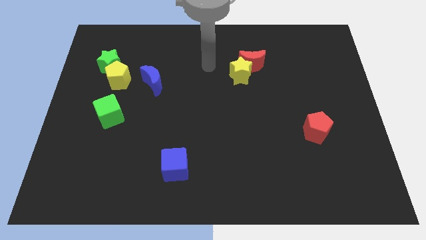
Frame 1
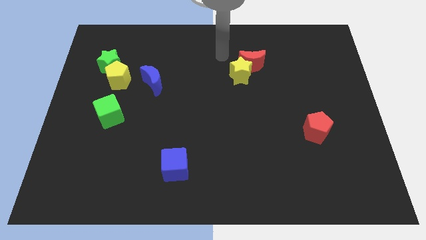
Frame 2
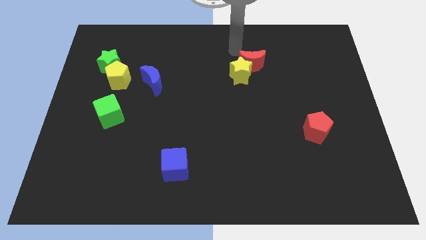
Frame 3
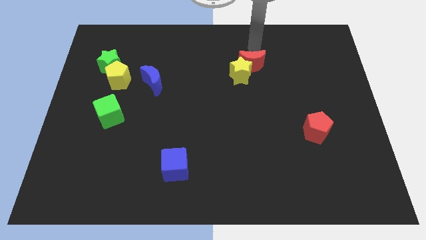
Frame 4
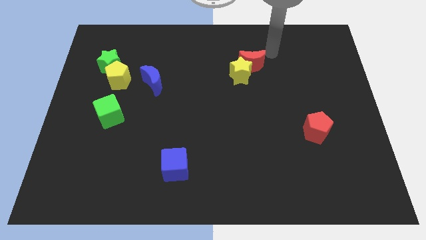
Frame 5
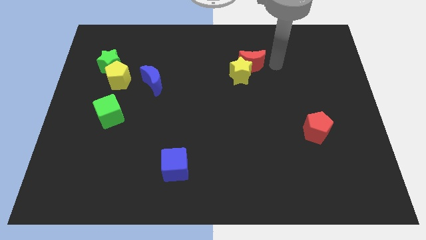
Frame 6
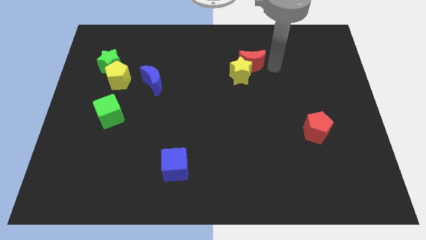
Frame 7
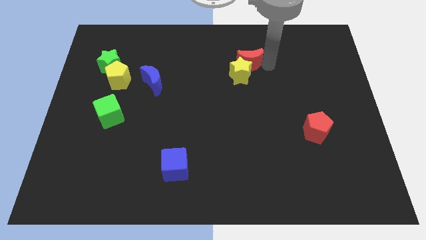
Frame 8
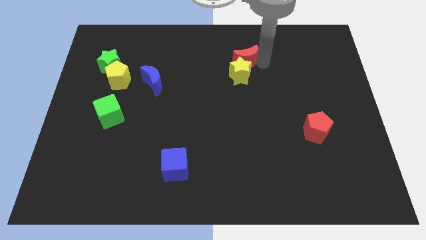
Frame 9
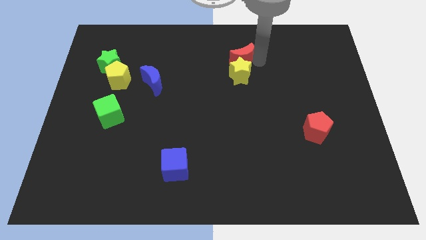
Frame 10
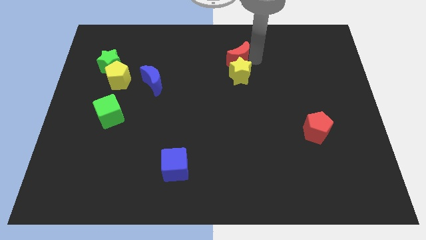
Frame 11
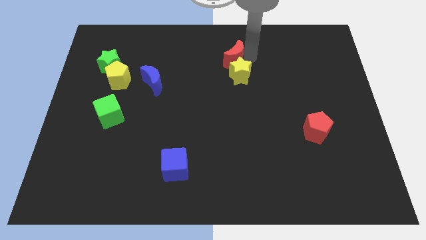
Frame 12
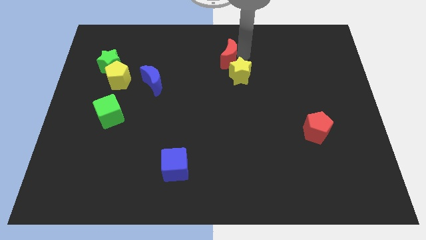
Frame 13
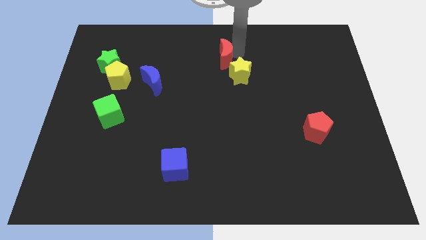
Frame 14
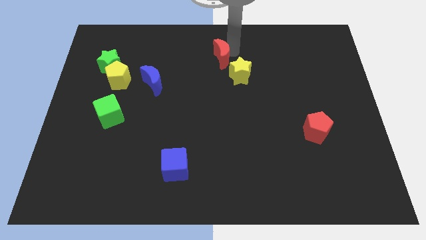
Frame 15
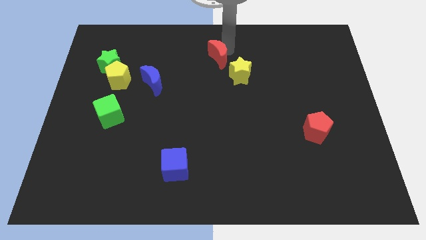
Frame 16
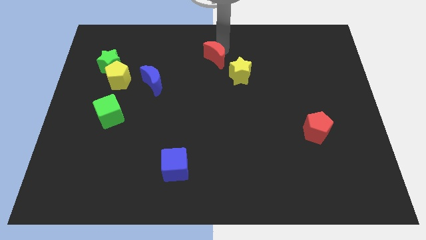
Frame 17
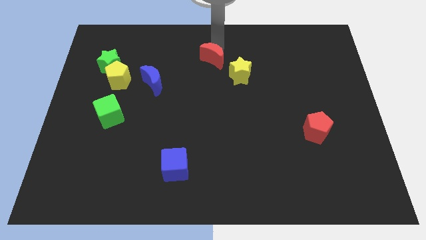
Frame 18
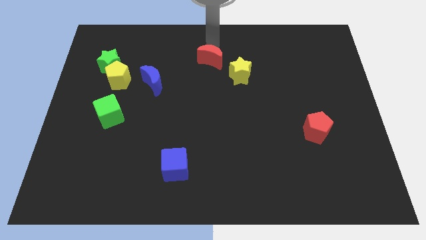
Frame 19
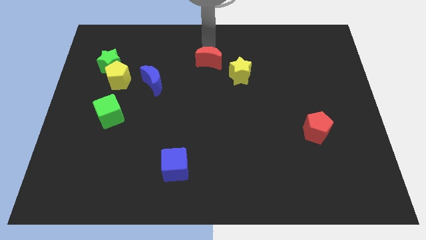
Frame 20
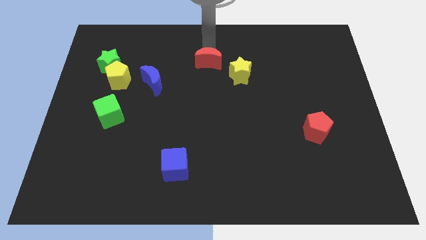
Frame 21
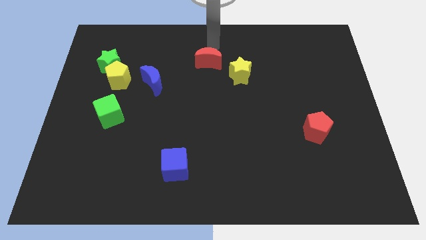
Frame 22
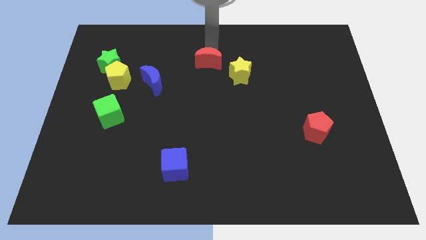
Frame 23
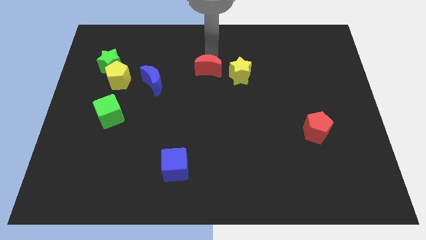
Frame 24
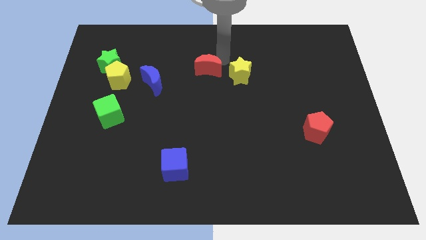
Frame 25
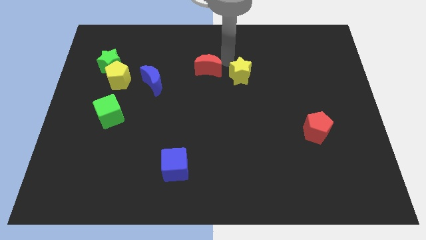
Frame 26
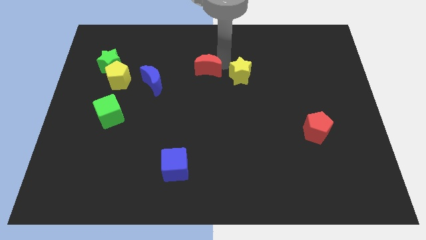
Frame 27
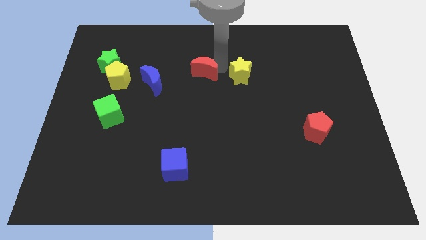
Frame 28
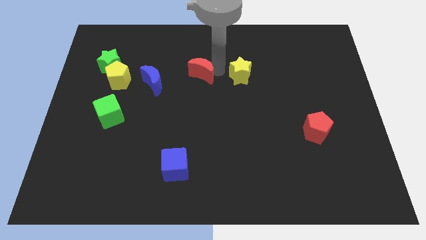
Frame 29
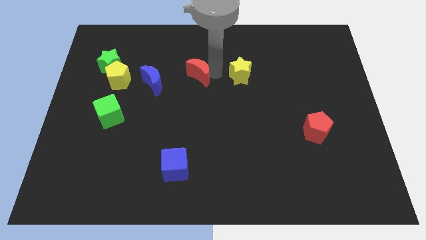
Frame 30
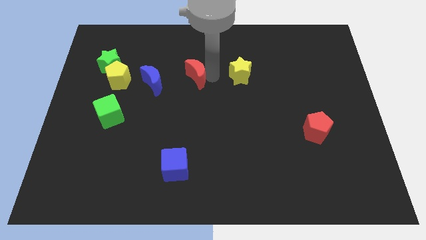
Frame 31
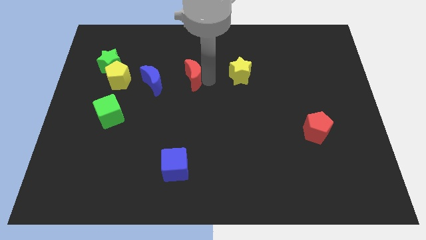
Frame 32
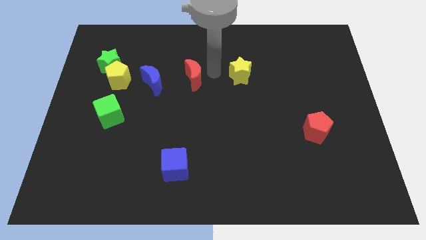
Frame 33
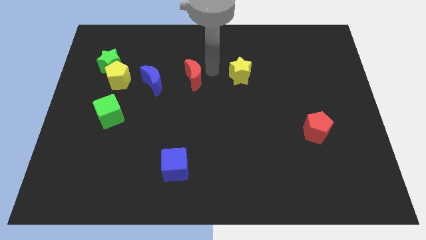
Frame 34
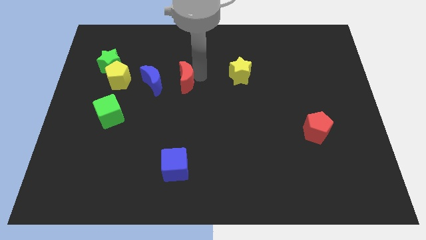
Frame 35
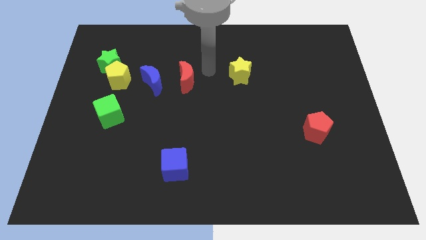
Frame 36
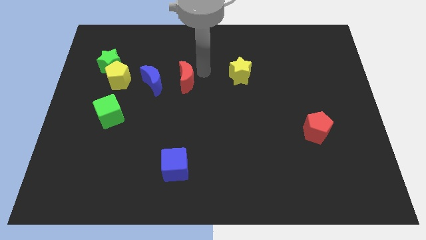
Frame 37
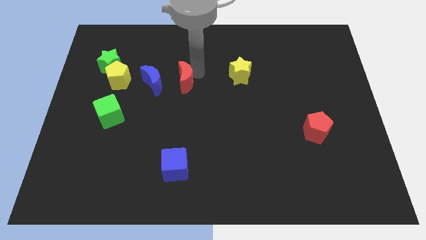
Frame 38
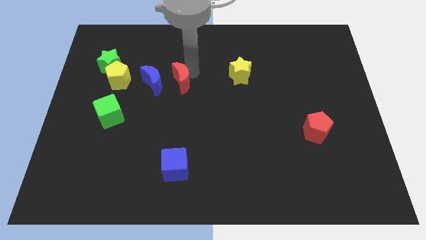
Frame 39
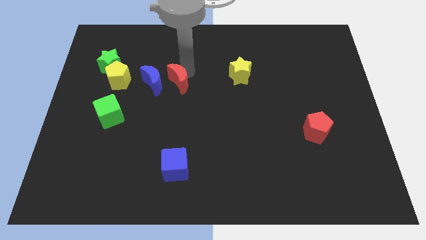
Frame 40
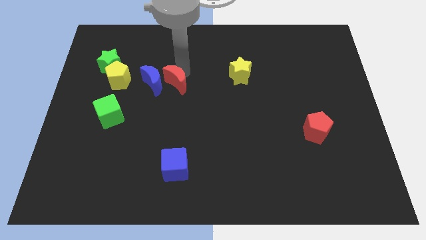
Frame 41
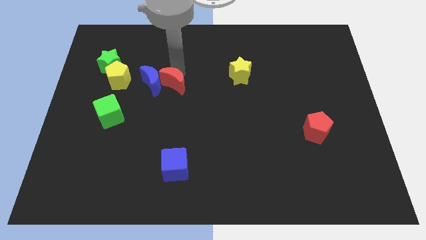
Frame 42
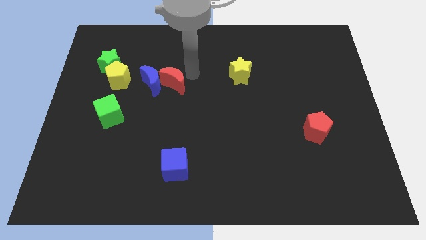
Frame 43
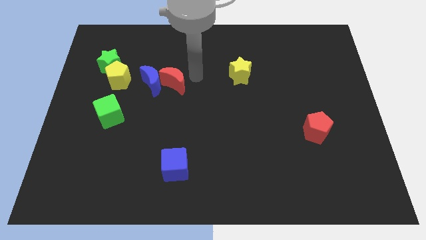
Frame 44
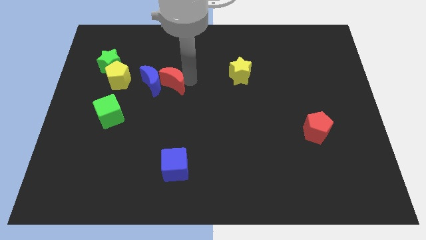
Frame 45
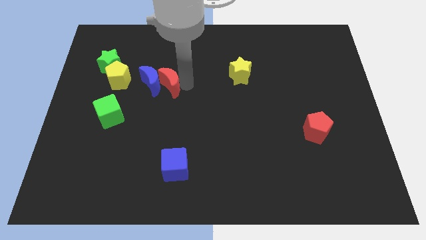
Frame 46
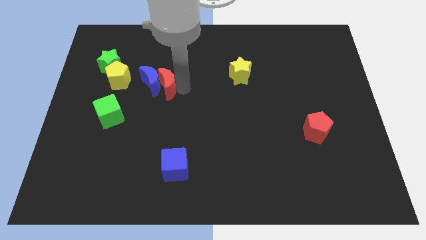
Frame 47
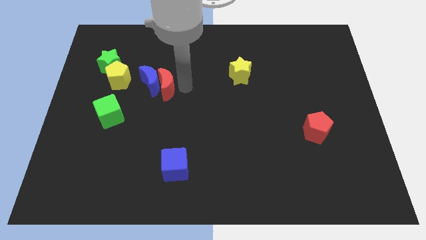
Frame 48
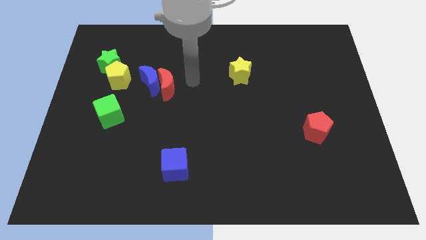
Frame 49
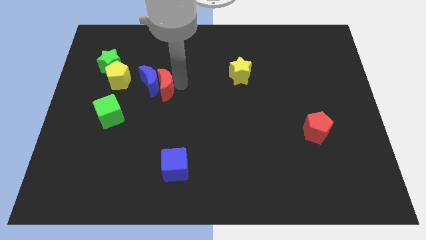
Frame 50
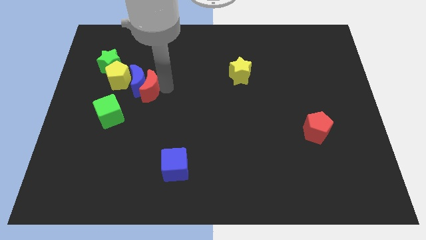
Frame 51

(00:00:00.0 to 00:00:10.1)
slide the red moon to the bottom right of the yellow pentagon

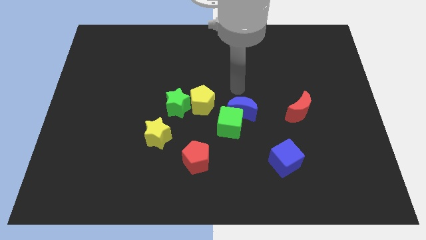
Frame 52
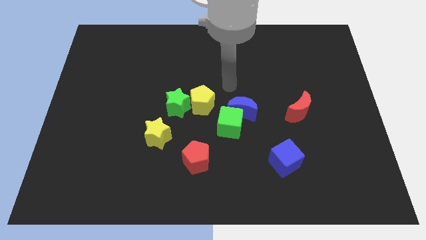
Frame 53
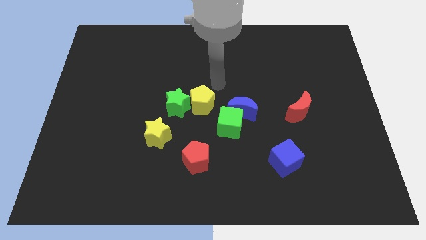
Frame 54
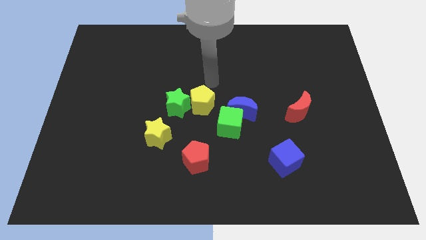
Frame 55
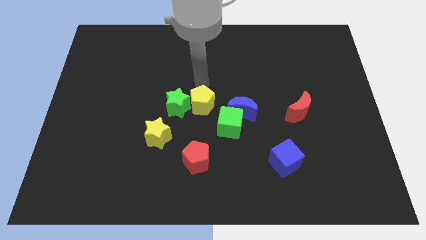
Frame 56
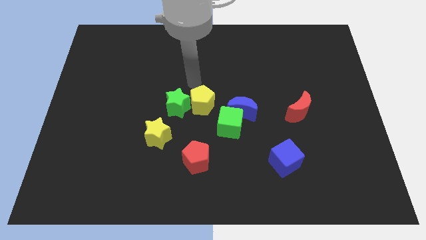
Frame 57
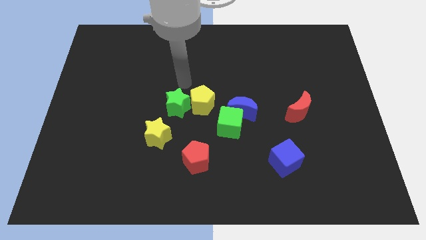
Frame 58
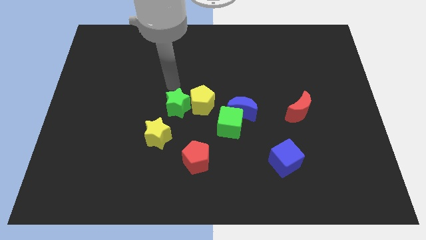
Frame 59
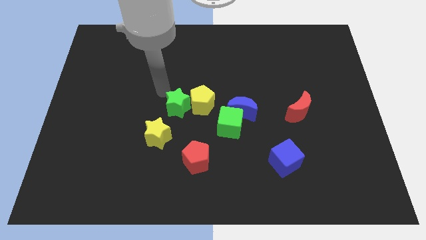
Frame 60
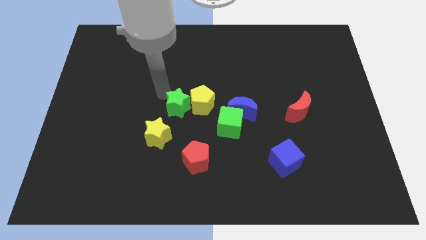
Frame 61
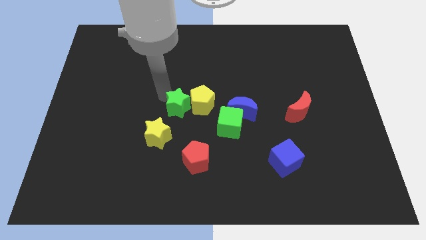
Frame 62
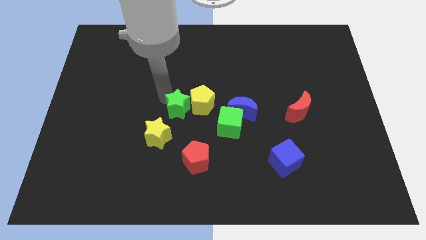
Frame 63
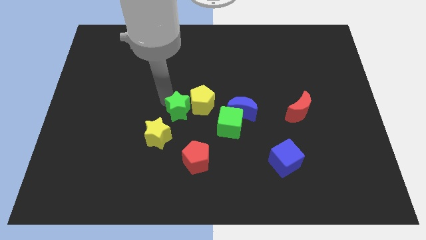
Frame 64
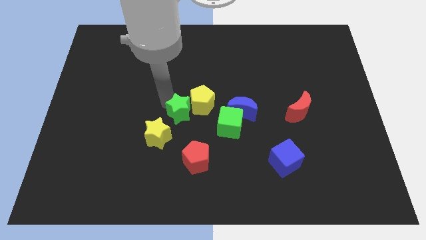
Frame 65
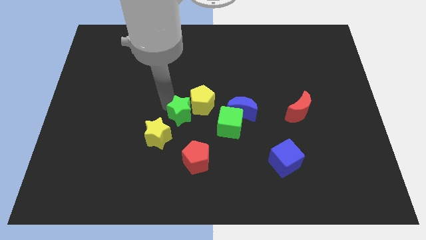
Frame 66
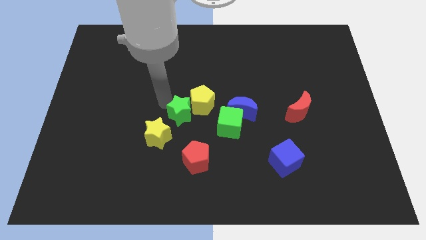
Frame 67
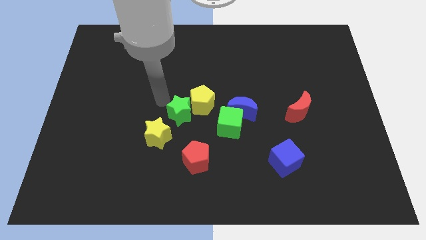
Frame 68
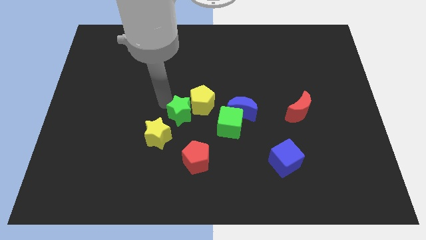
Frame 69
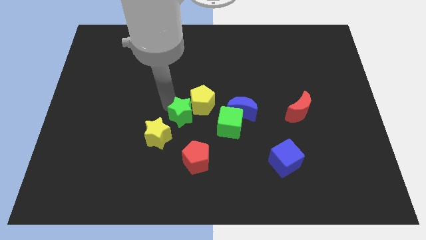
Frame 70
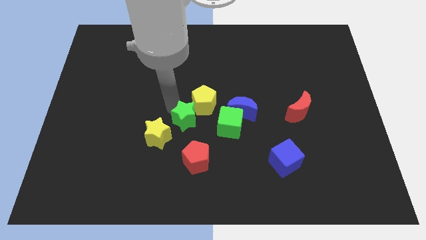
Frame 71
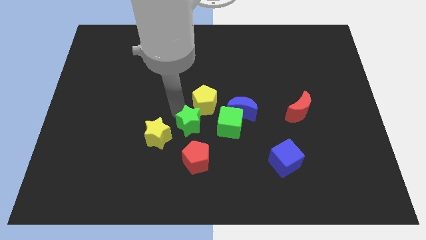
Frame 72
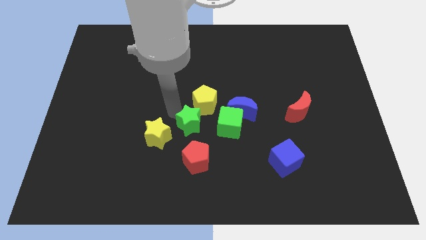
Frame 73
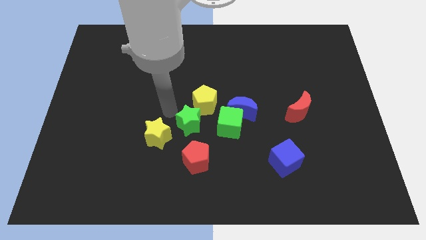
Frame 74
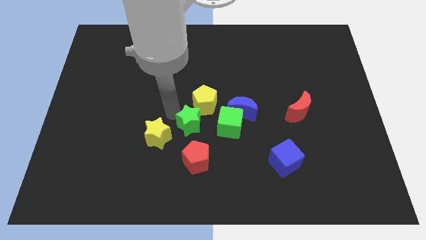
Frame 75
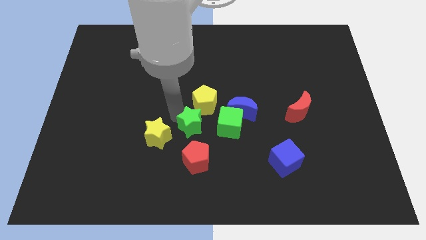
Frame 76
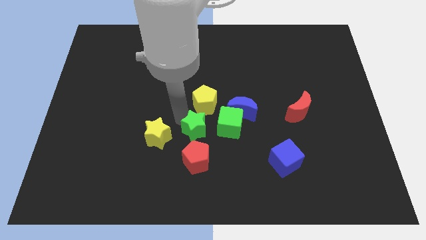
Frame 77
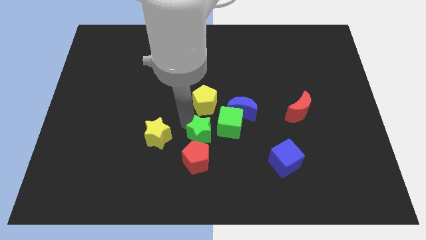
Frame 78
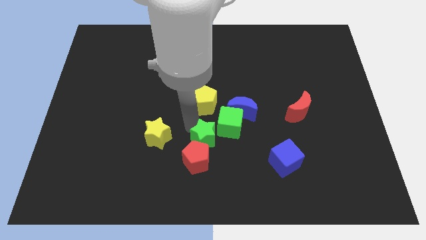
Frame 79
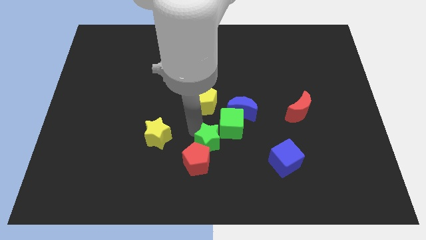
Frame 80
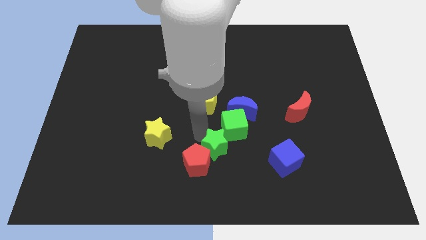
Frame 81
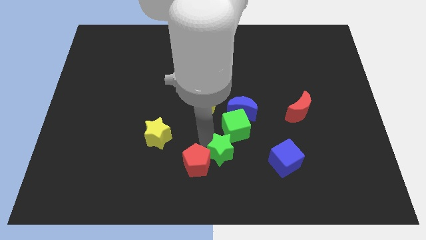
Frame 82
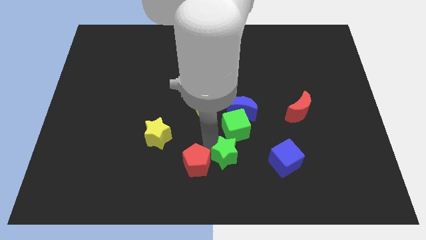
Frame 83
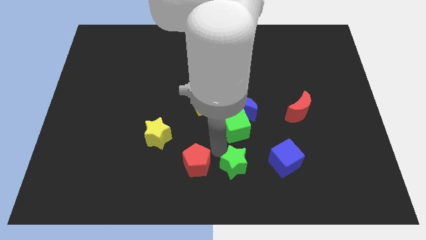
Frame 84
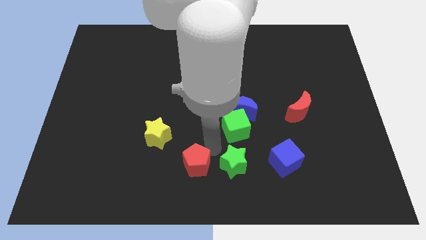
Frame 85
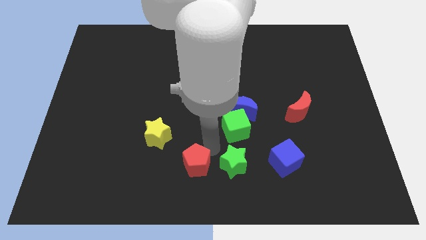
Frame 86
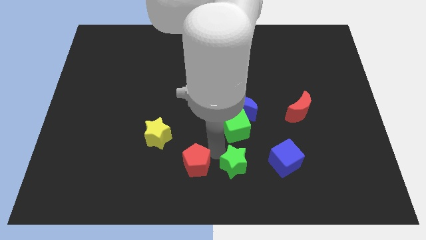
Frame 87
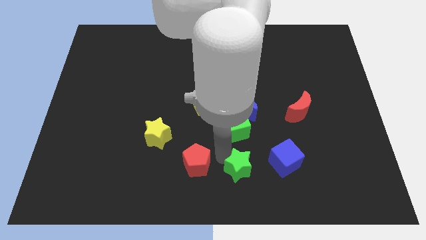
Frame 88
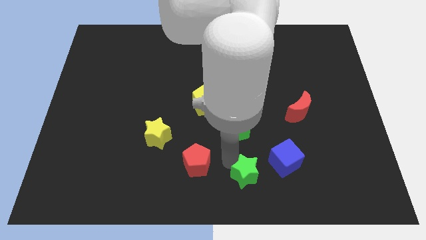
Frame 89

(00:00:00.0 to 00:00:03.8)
move the green star diagonally down and to the left of the blue cube
